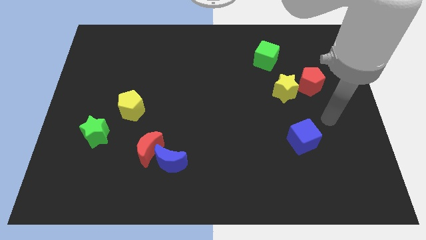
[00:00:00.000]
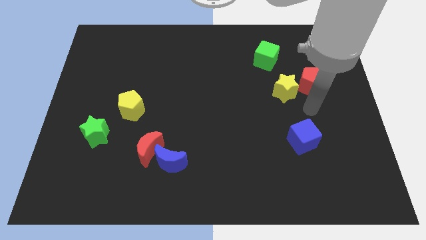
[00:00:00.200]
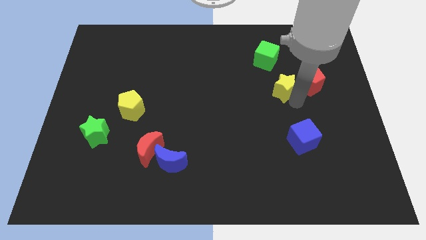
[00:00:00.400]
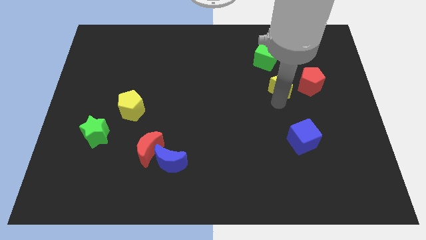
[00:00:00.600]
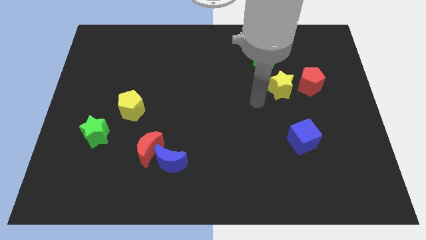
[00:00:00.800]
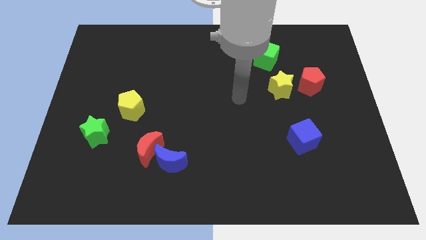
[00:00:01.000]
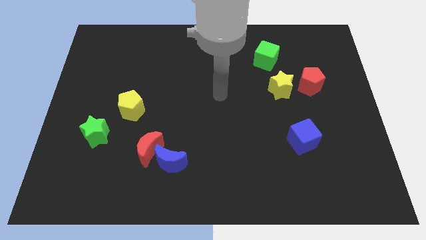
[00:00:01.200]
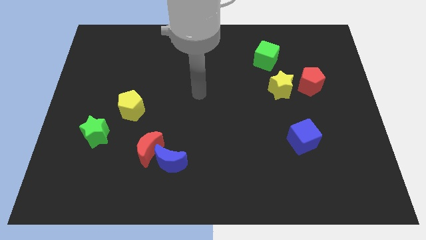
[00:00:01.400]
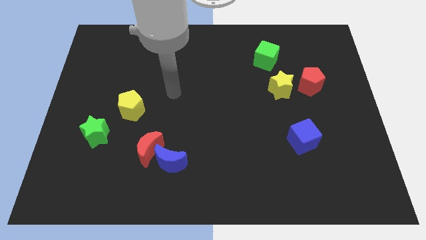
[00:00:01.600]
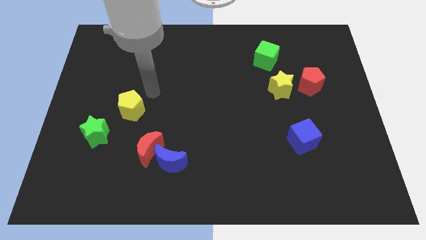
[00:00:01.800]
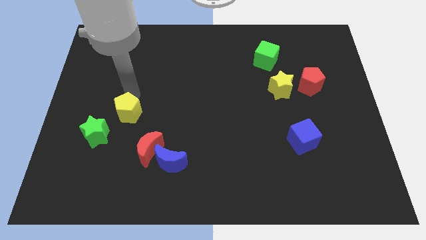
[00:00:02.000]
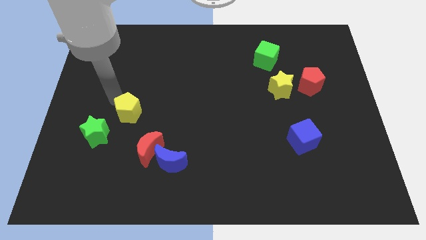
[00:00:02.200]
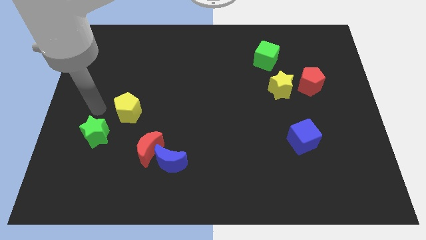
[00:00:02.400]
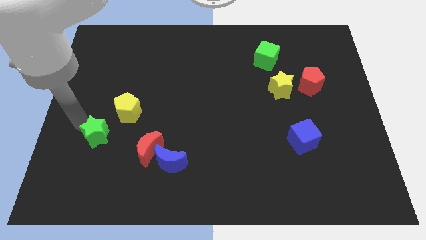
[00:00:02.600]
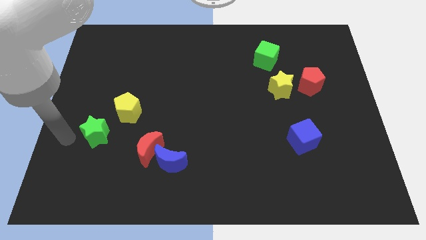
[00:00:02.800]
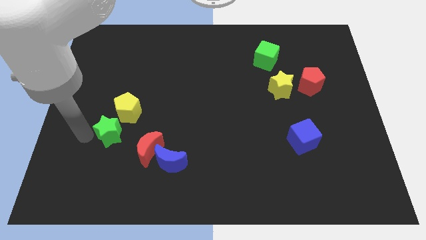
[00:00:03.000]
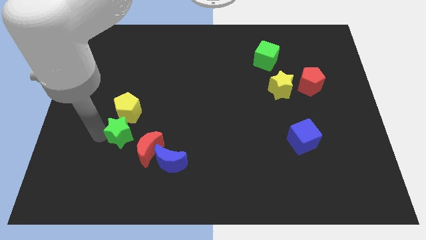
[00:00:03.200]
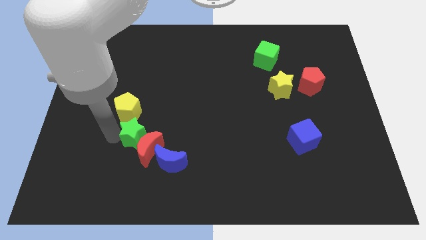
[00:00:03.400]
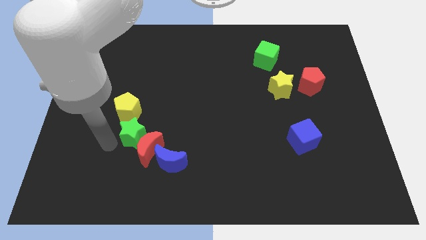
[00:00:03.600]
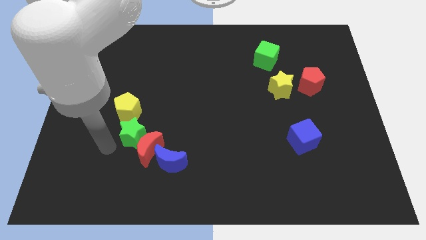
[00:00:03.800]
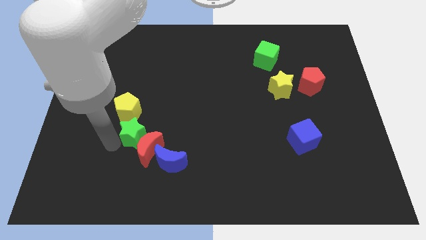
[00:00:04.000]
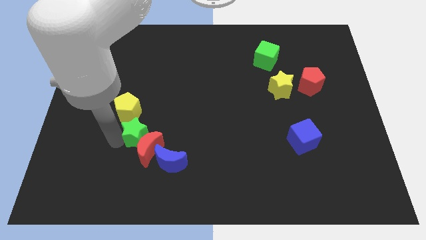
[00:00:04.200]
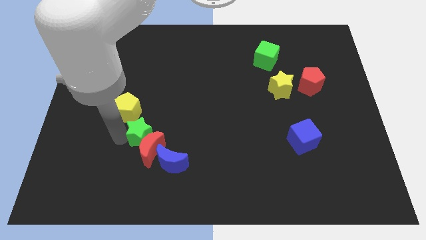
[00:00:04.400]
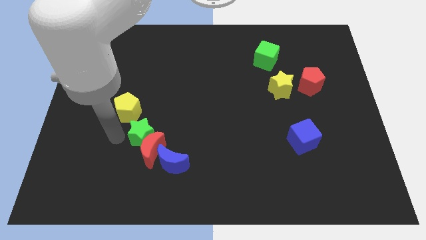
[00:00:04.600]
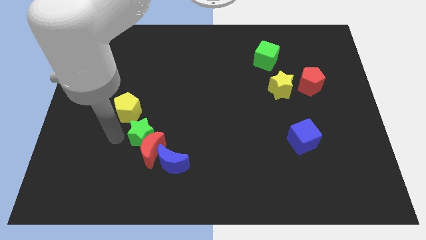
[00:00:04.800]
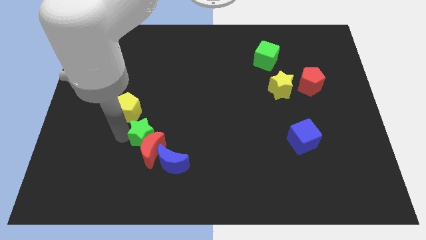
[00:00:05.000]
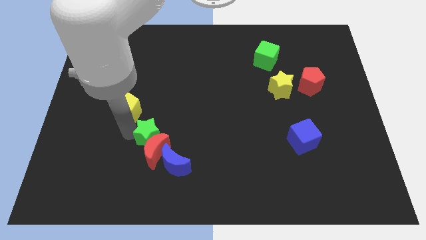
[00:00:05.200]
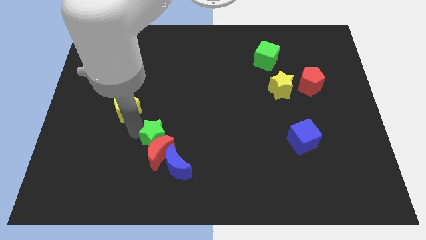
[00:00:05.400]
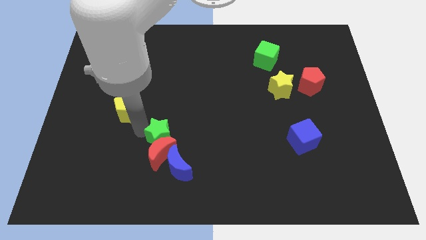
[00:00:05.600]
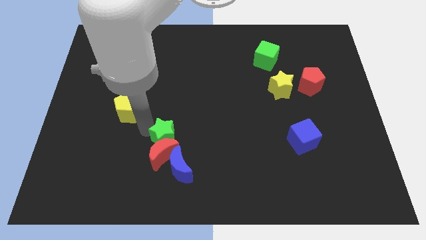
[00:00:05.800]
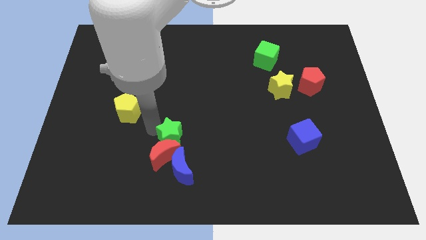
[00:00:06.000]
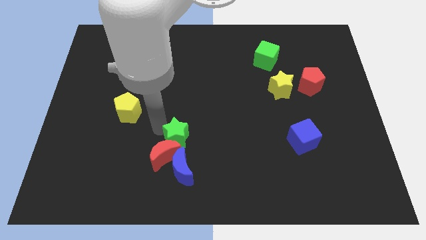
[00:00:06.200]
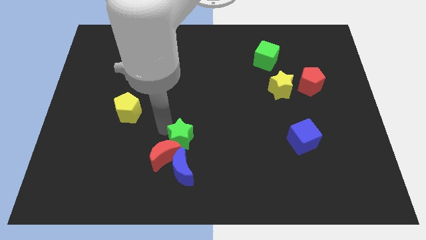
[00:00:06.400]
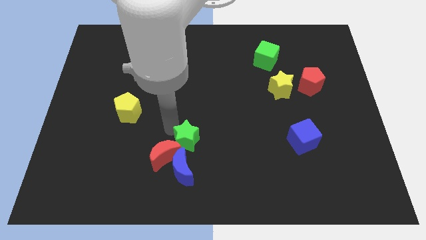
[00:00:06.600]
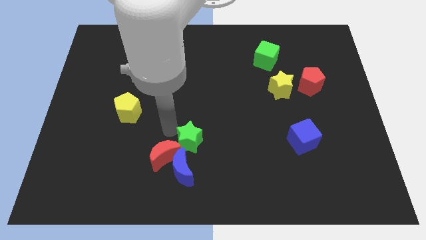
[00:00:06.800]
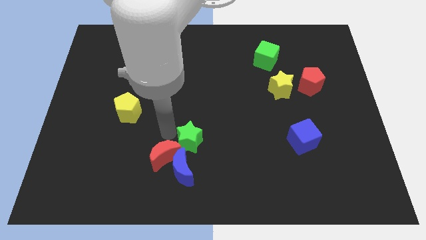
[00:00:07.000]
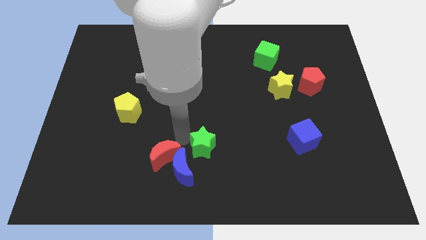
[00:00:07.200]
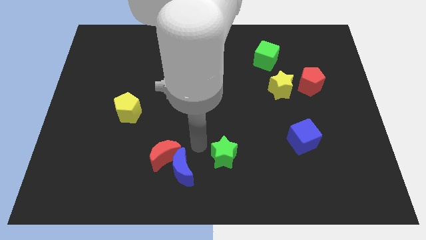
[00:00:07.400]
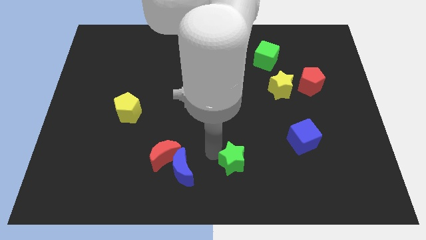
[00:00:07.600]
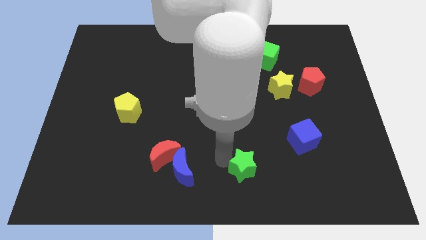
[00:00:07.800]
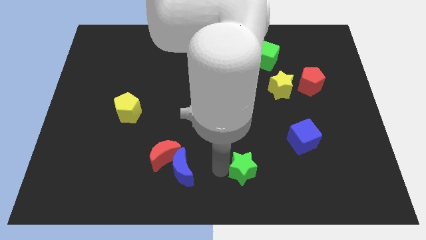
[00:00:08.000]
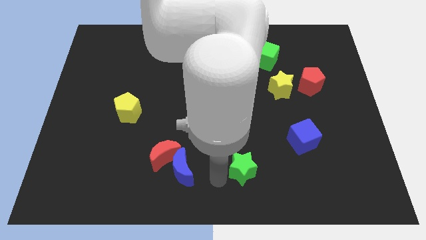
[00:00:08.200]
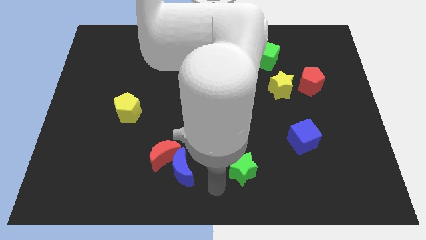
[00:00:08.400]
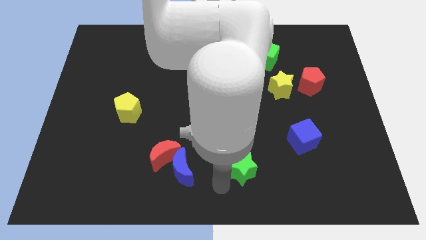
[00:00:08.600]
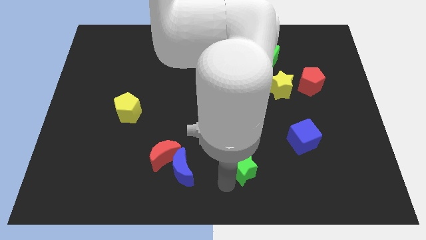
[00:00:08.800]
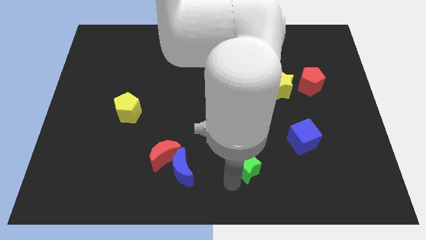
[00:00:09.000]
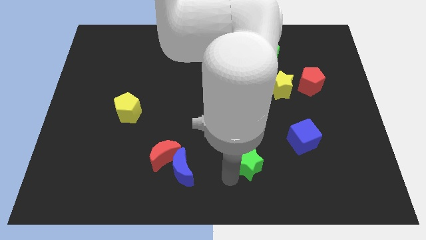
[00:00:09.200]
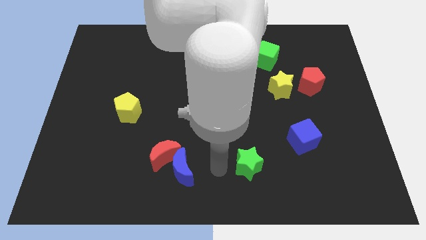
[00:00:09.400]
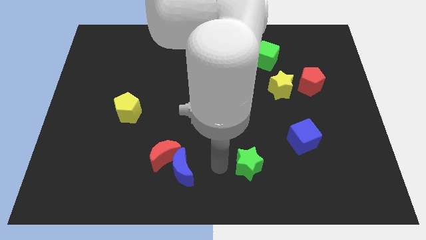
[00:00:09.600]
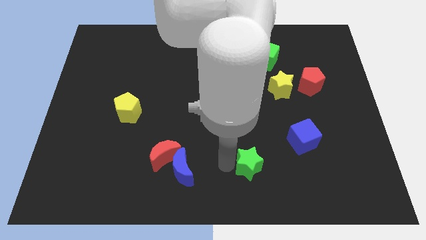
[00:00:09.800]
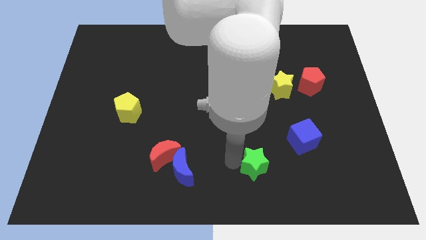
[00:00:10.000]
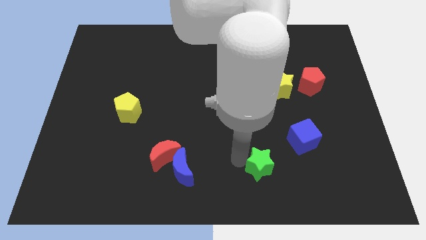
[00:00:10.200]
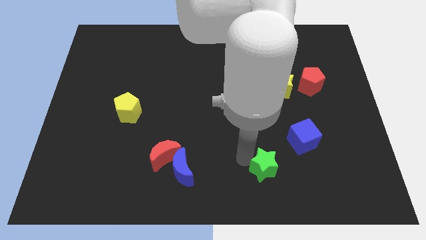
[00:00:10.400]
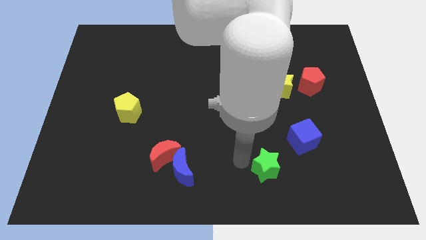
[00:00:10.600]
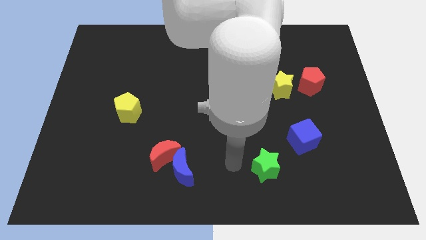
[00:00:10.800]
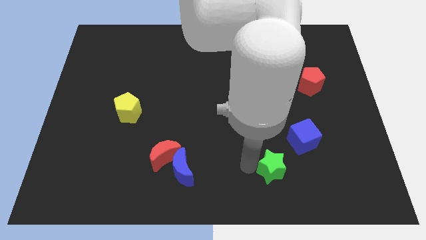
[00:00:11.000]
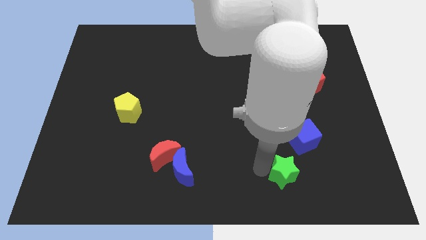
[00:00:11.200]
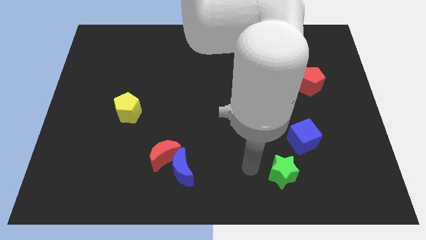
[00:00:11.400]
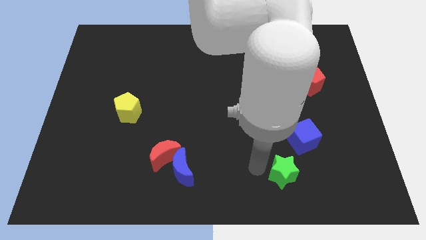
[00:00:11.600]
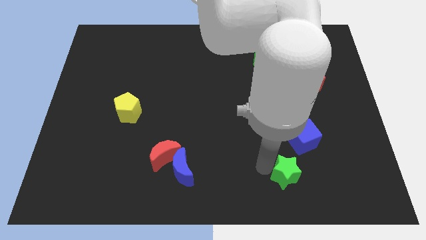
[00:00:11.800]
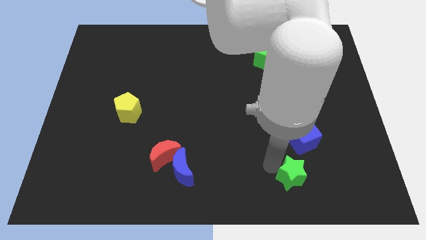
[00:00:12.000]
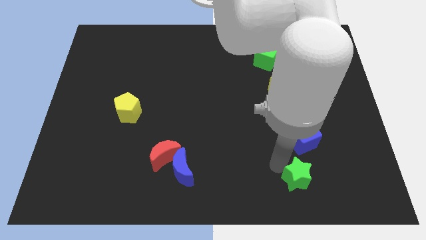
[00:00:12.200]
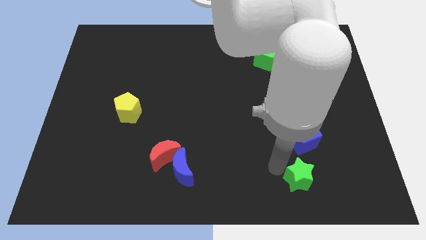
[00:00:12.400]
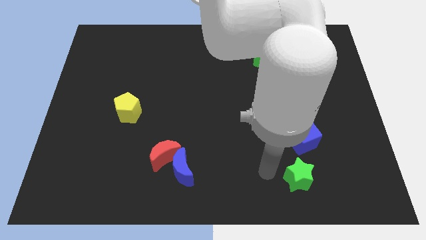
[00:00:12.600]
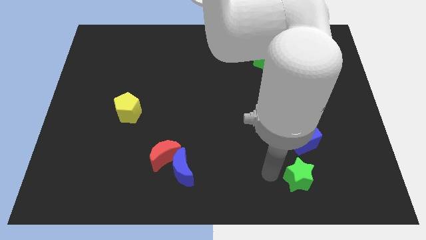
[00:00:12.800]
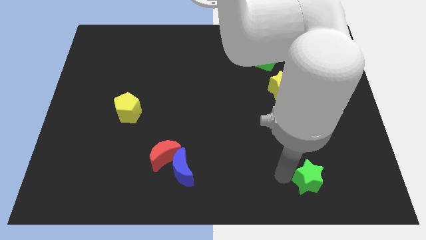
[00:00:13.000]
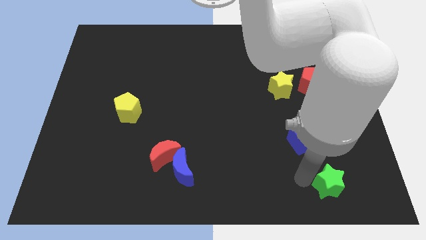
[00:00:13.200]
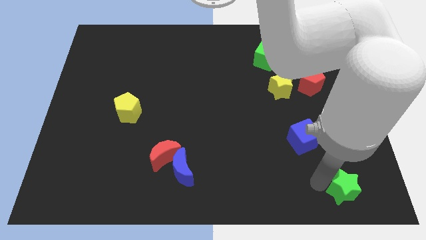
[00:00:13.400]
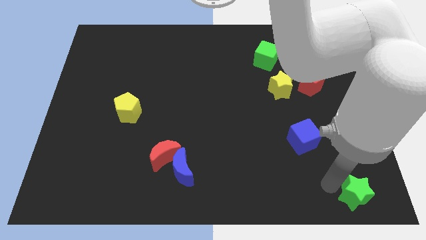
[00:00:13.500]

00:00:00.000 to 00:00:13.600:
put the green star to the bottom right
